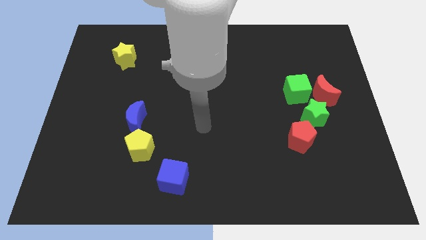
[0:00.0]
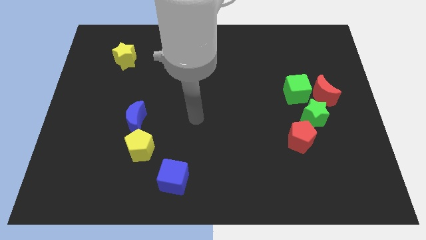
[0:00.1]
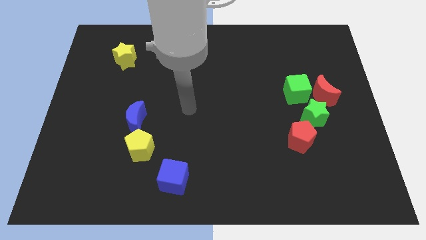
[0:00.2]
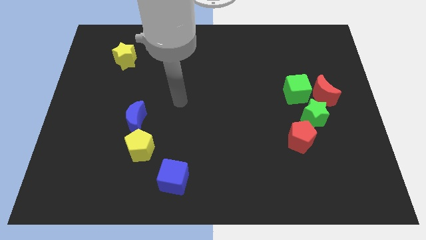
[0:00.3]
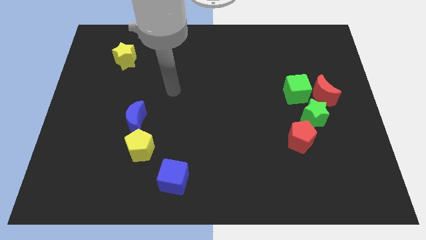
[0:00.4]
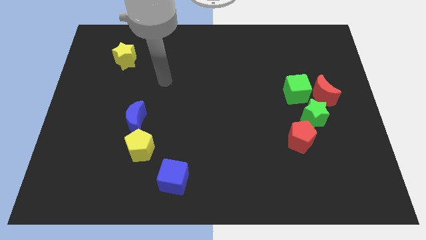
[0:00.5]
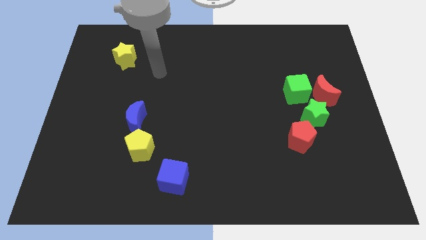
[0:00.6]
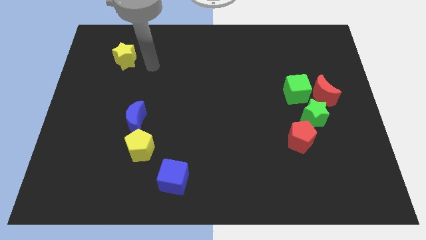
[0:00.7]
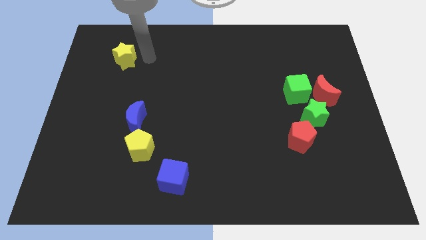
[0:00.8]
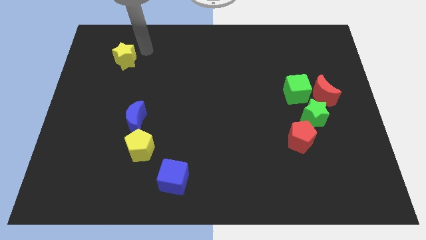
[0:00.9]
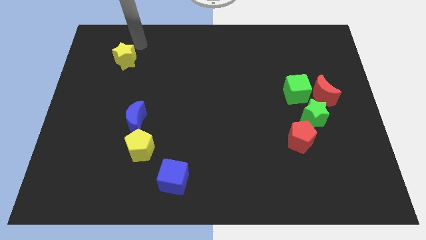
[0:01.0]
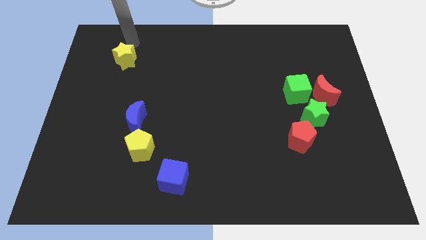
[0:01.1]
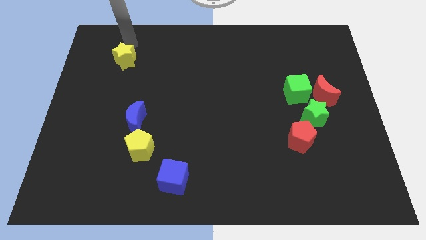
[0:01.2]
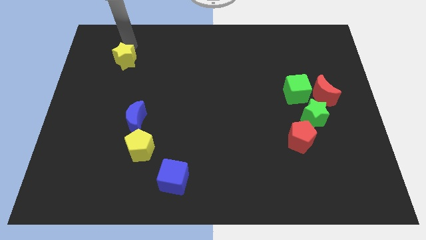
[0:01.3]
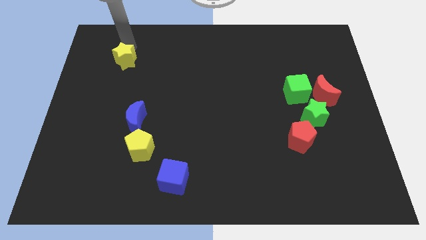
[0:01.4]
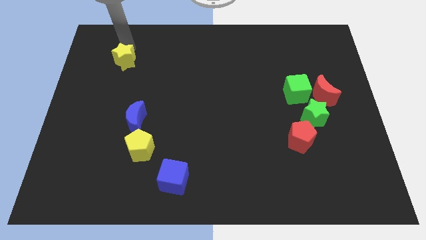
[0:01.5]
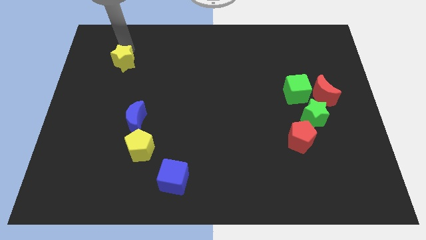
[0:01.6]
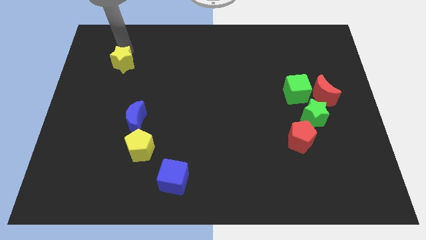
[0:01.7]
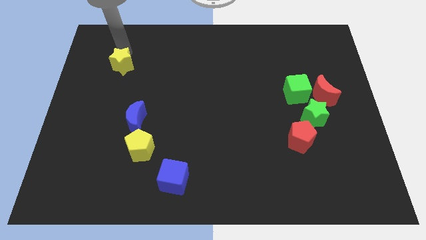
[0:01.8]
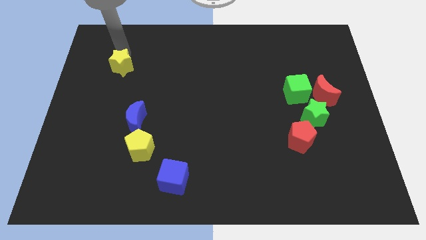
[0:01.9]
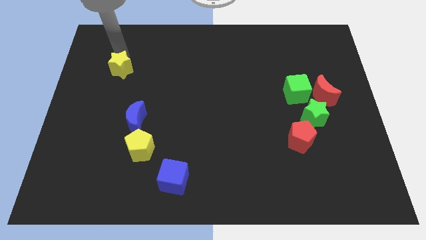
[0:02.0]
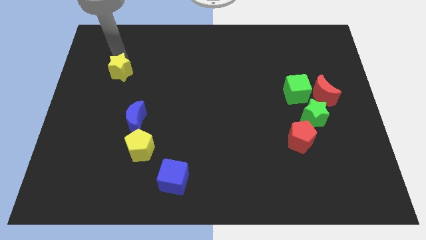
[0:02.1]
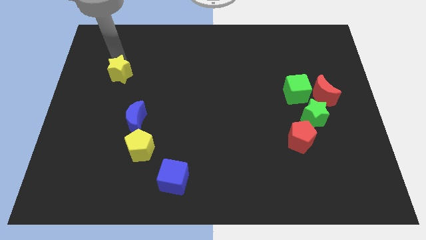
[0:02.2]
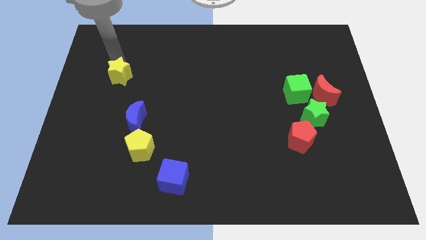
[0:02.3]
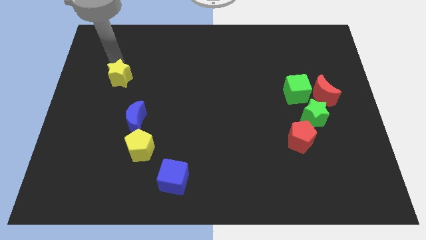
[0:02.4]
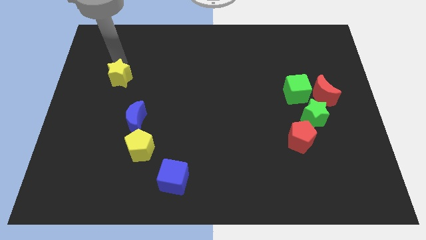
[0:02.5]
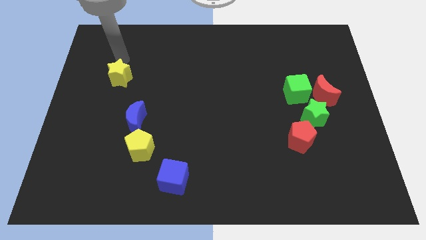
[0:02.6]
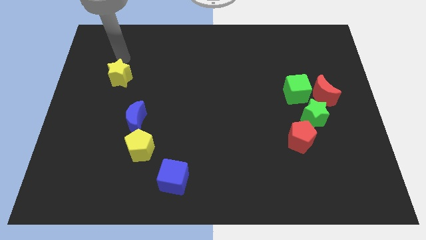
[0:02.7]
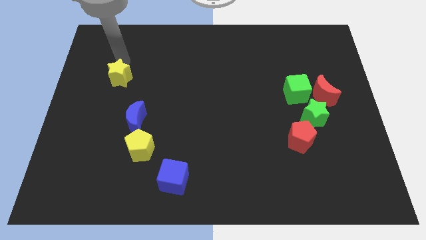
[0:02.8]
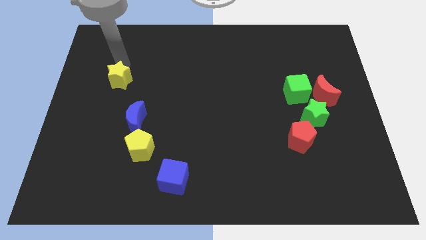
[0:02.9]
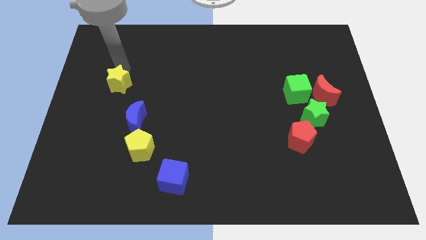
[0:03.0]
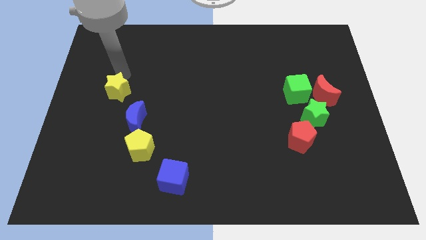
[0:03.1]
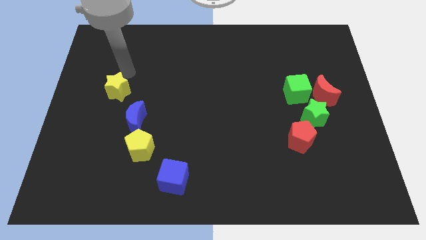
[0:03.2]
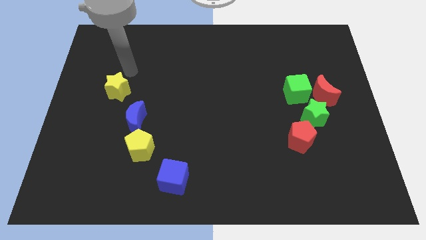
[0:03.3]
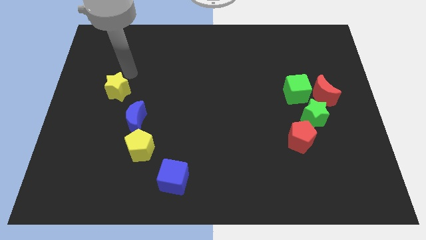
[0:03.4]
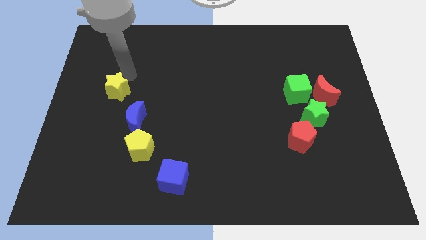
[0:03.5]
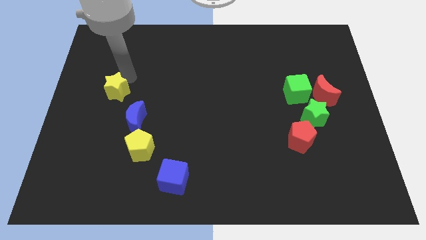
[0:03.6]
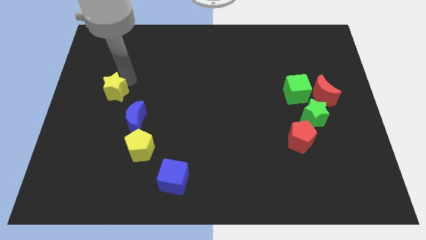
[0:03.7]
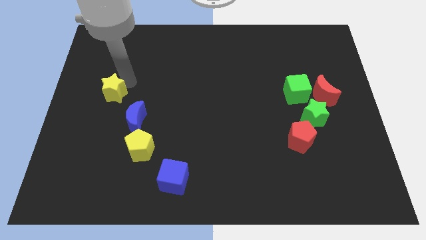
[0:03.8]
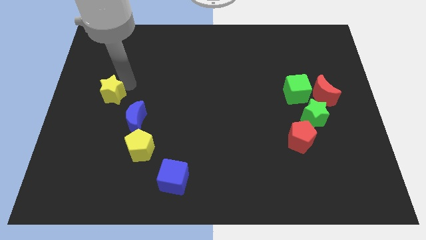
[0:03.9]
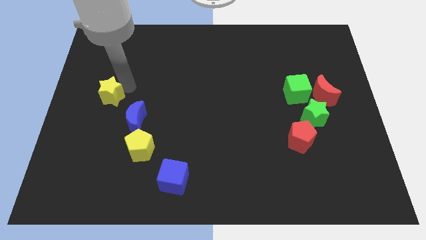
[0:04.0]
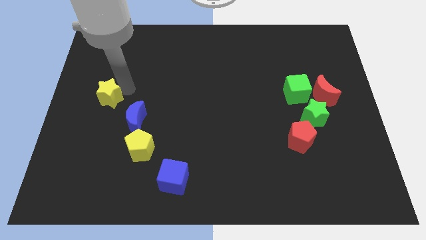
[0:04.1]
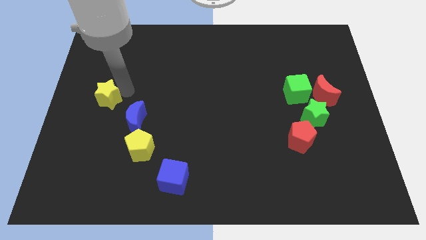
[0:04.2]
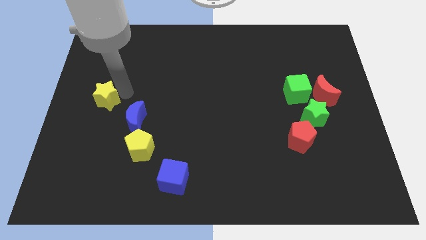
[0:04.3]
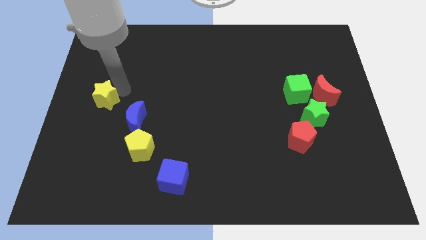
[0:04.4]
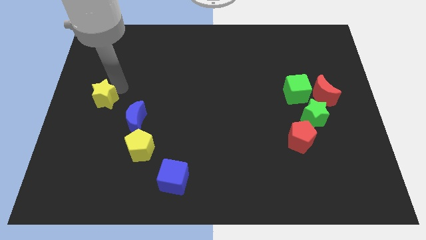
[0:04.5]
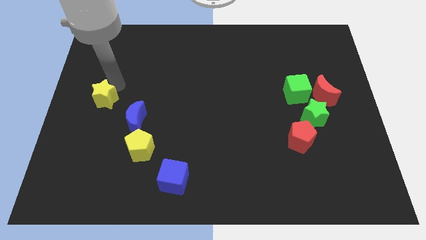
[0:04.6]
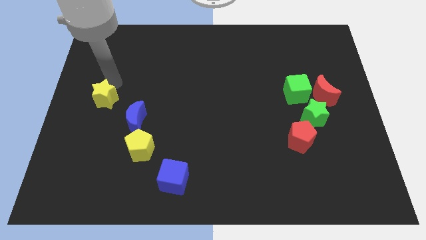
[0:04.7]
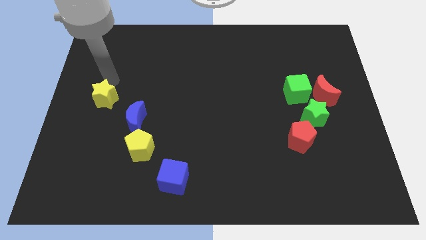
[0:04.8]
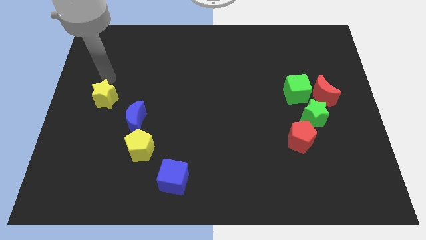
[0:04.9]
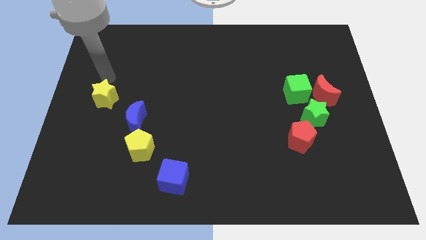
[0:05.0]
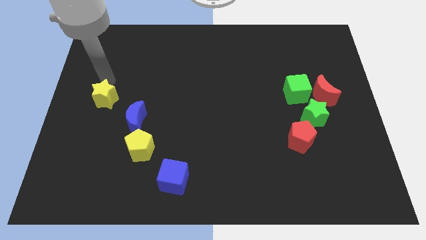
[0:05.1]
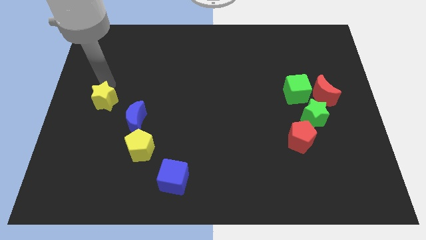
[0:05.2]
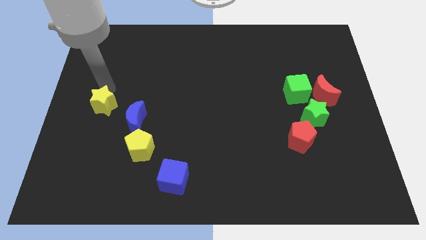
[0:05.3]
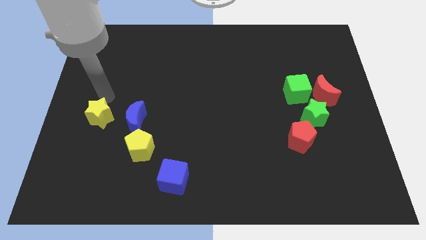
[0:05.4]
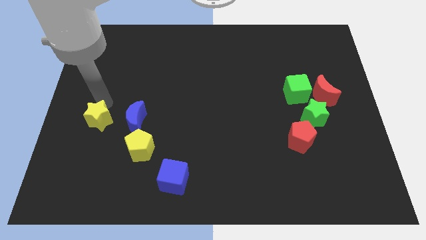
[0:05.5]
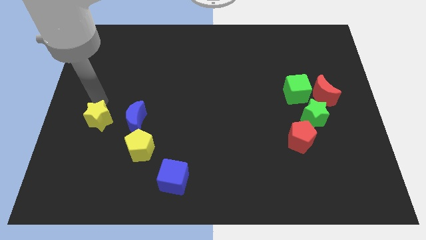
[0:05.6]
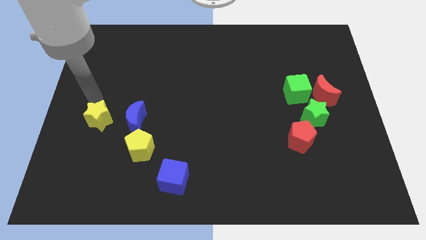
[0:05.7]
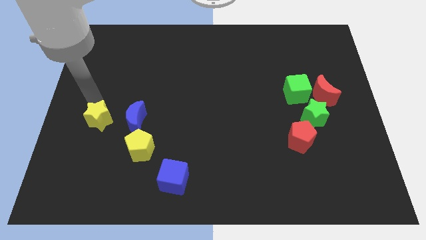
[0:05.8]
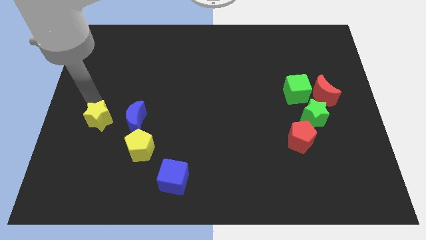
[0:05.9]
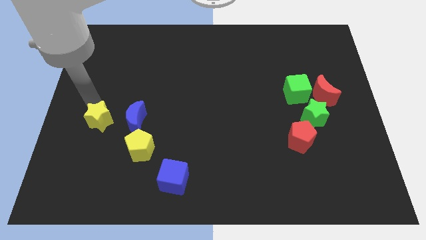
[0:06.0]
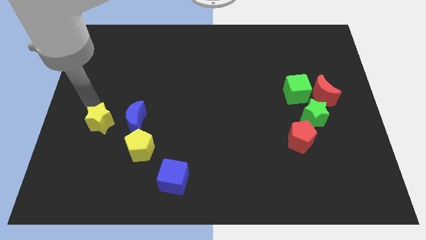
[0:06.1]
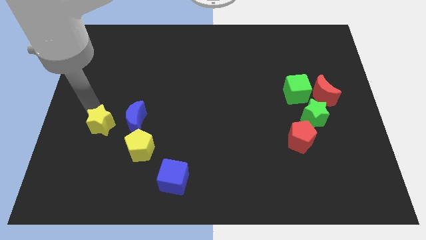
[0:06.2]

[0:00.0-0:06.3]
slide the yellow star to the bottom left side of the blue moon
